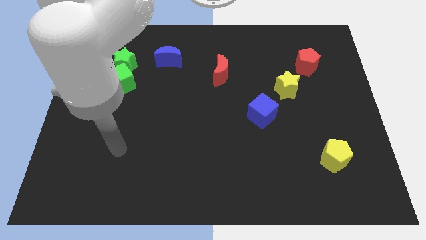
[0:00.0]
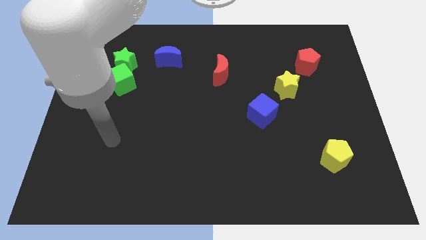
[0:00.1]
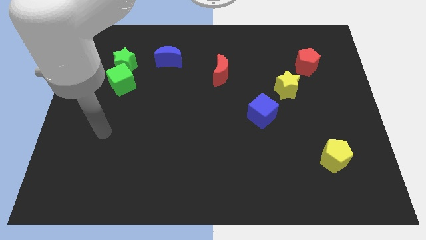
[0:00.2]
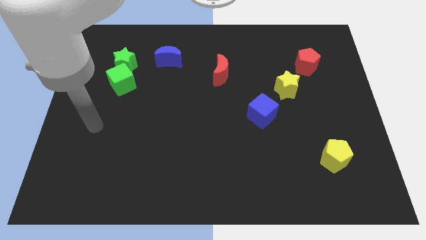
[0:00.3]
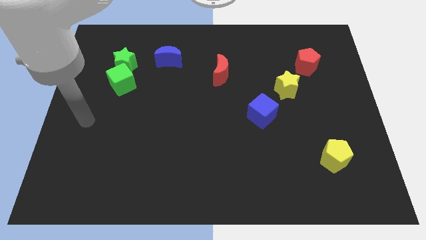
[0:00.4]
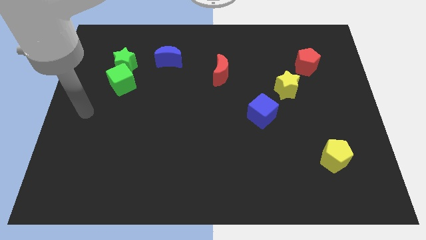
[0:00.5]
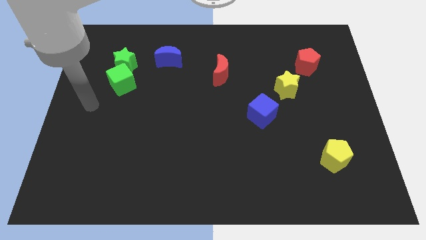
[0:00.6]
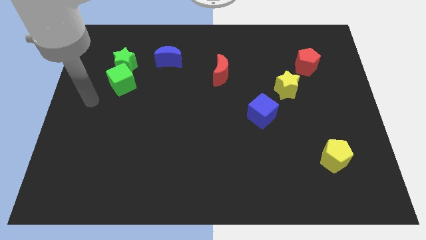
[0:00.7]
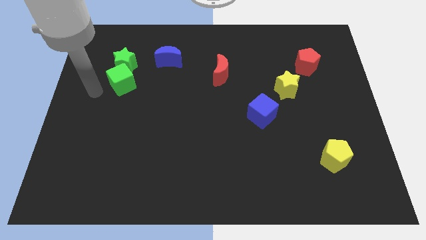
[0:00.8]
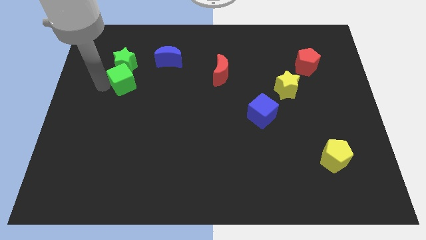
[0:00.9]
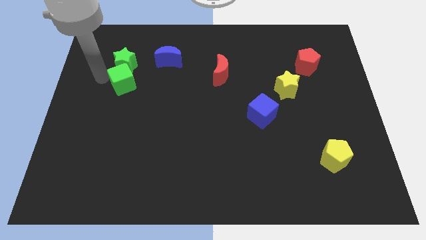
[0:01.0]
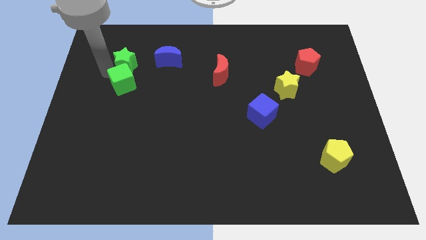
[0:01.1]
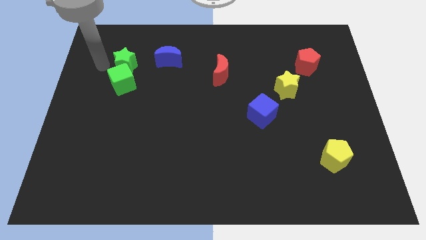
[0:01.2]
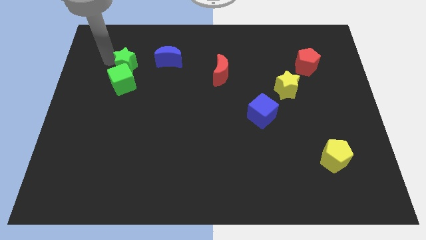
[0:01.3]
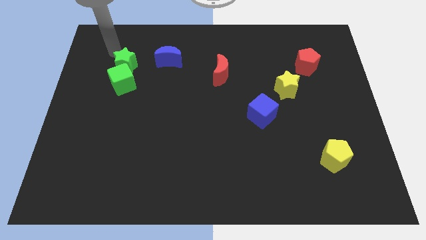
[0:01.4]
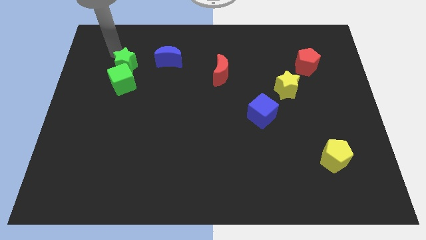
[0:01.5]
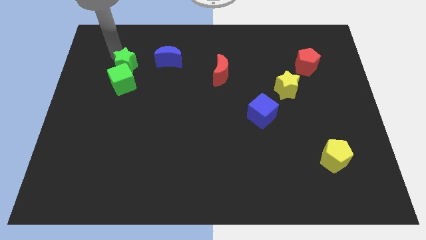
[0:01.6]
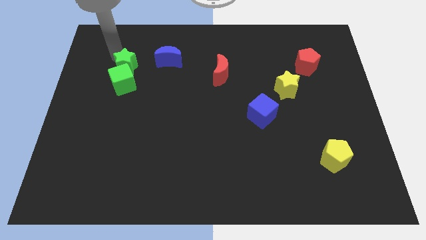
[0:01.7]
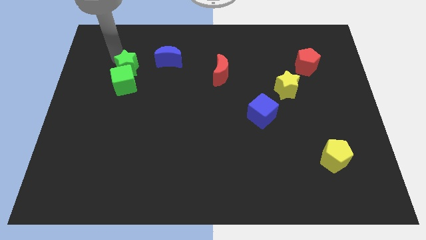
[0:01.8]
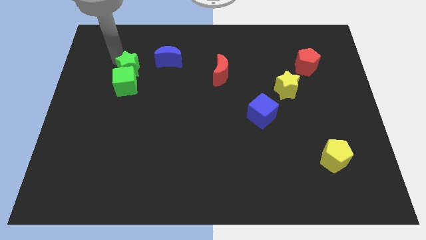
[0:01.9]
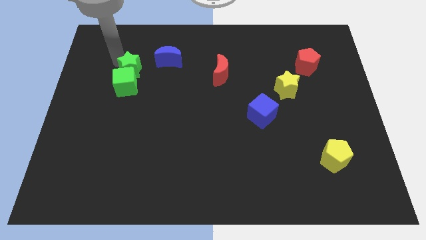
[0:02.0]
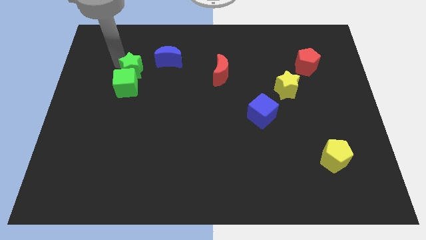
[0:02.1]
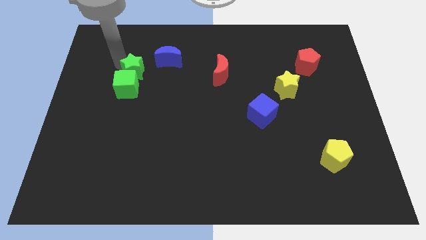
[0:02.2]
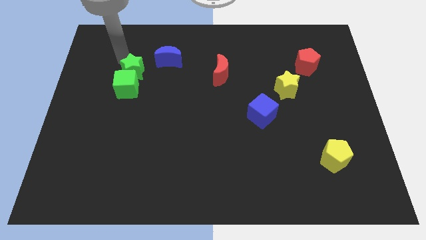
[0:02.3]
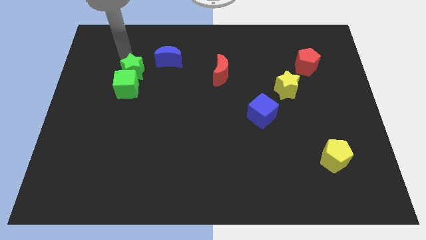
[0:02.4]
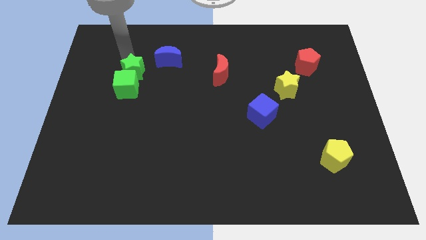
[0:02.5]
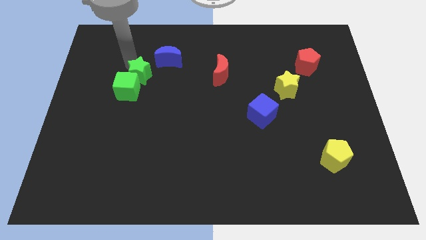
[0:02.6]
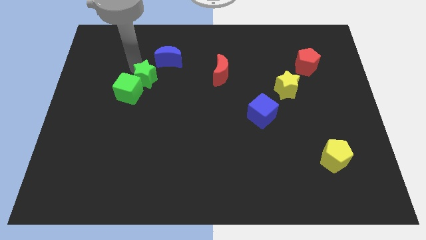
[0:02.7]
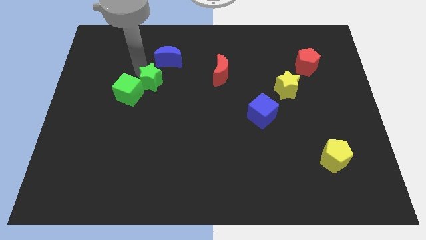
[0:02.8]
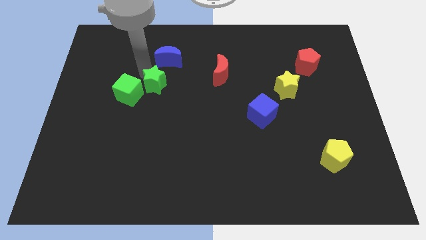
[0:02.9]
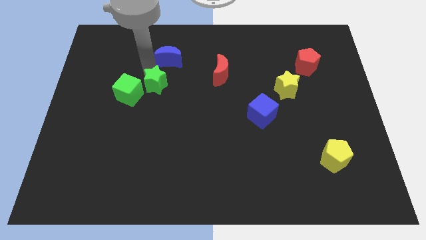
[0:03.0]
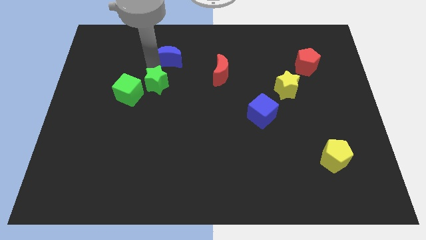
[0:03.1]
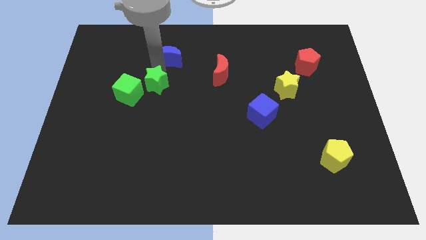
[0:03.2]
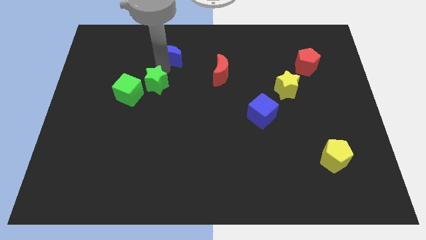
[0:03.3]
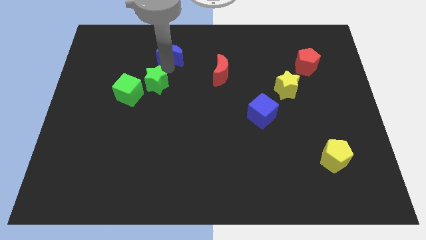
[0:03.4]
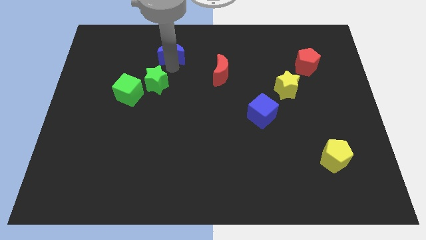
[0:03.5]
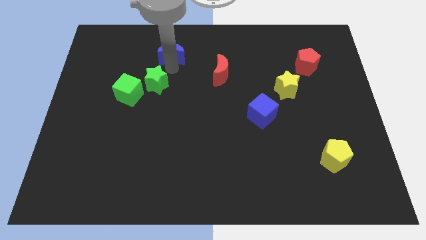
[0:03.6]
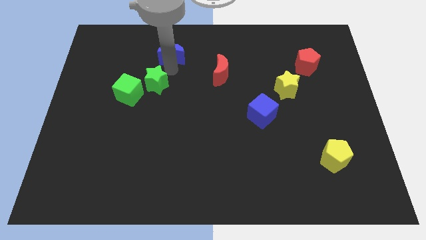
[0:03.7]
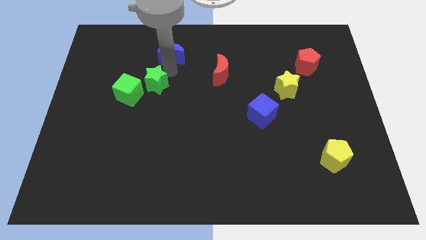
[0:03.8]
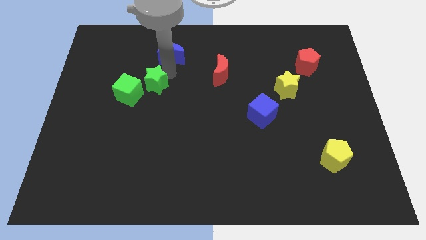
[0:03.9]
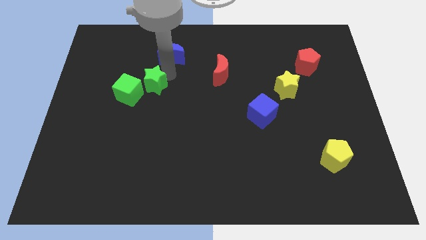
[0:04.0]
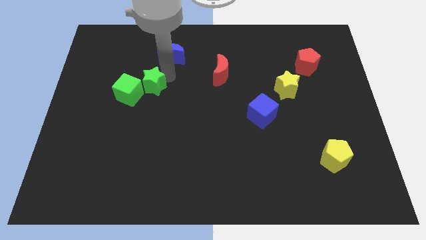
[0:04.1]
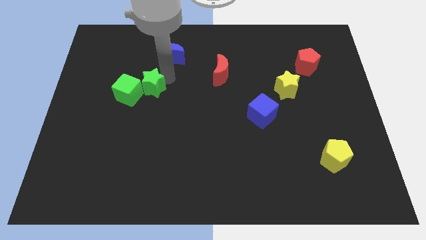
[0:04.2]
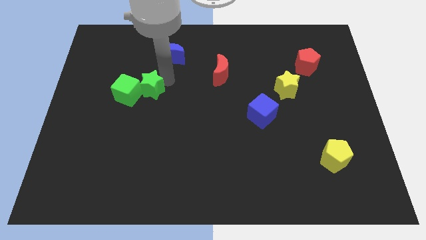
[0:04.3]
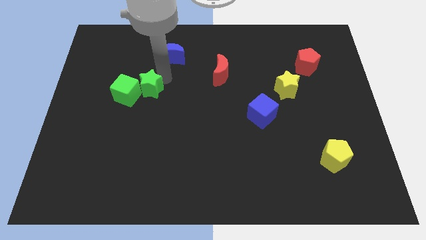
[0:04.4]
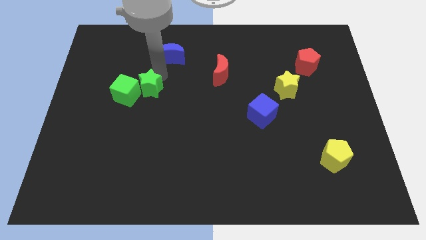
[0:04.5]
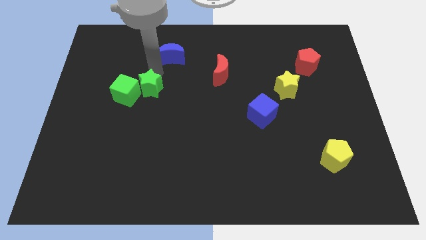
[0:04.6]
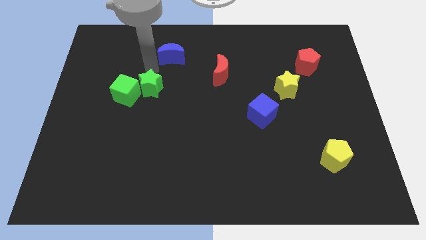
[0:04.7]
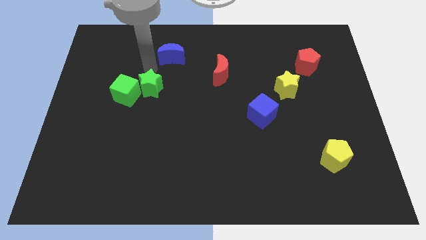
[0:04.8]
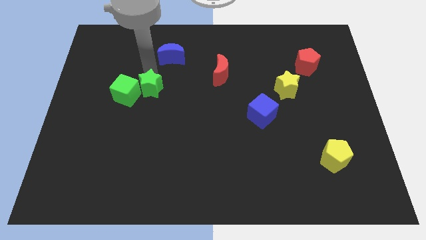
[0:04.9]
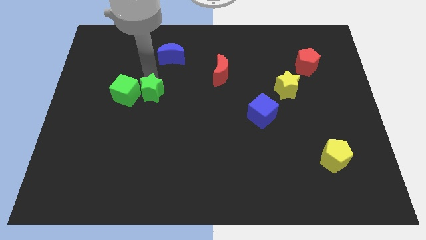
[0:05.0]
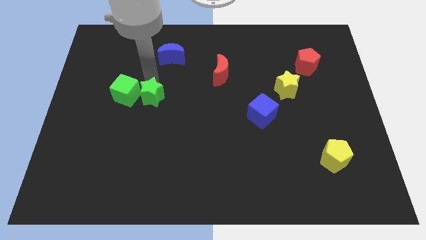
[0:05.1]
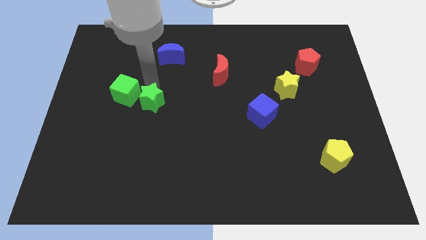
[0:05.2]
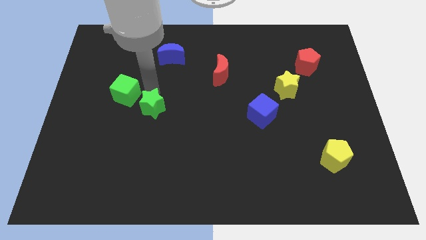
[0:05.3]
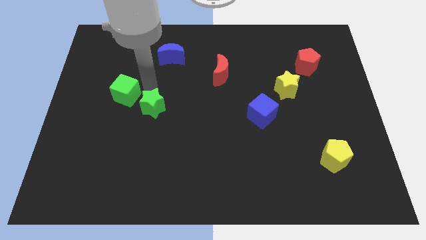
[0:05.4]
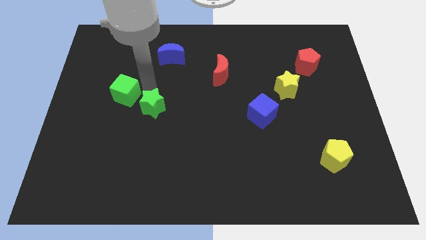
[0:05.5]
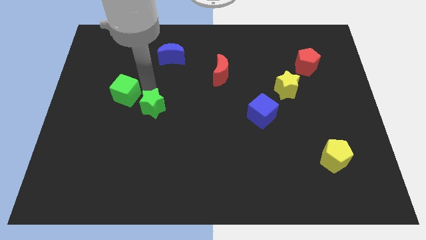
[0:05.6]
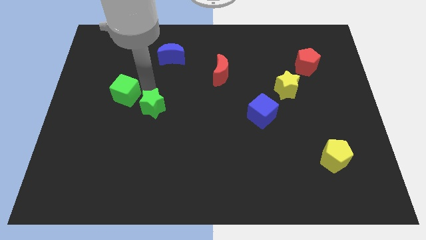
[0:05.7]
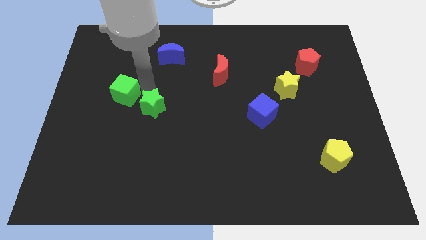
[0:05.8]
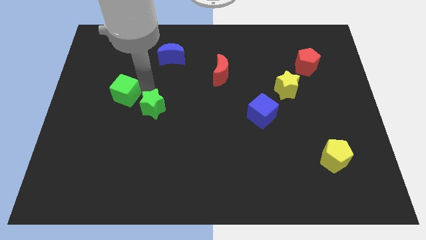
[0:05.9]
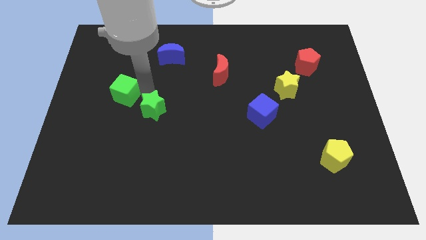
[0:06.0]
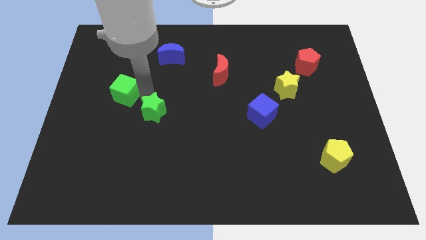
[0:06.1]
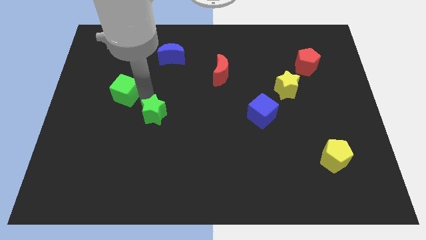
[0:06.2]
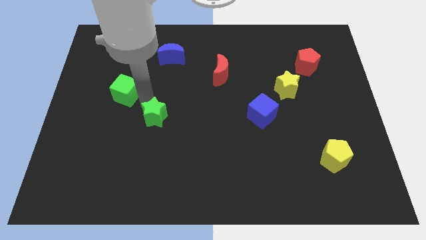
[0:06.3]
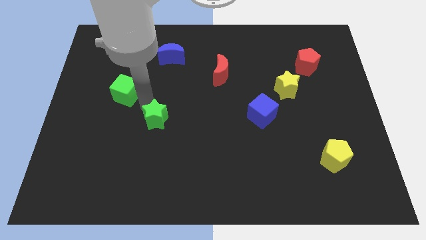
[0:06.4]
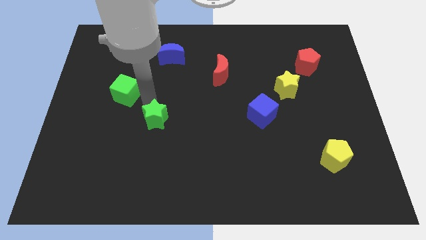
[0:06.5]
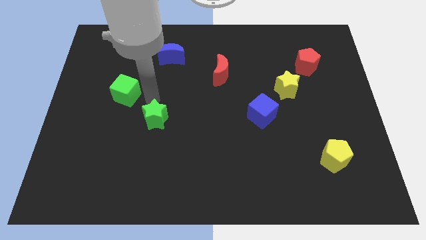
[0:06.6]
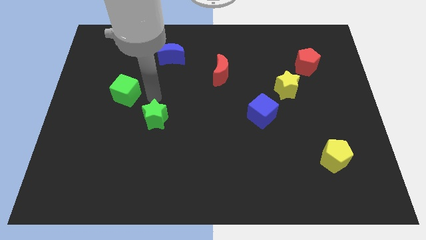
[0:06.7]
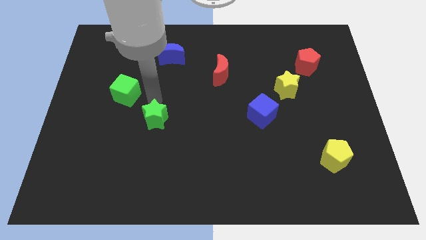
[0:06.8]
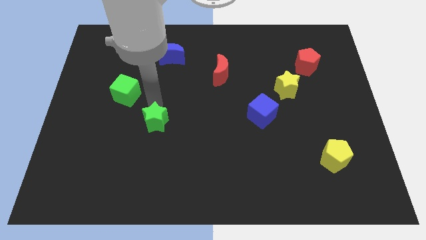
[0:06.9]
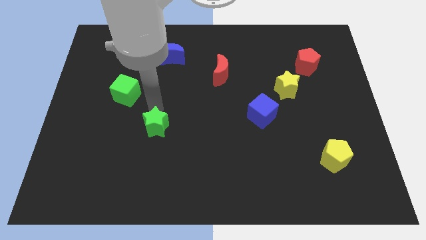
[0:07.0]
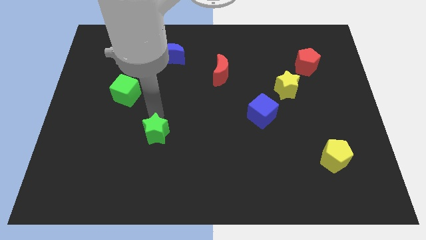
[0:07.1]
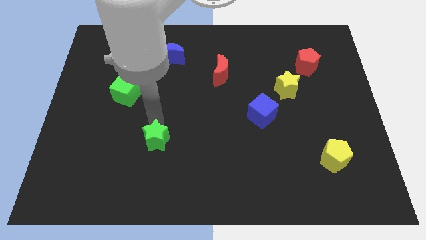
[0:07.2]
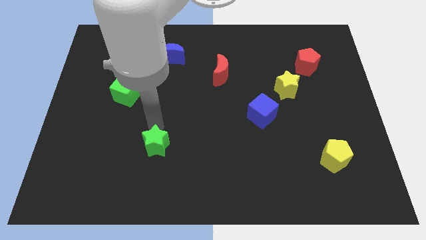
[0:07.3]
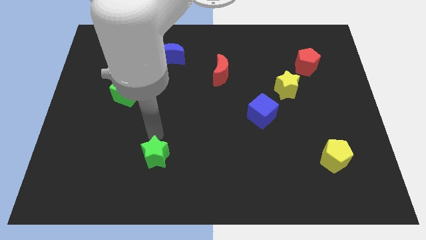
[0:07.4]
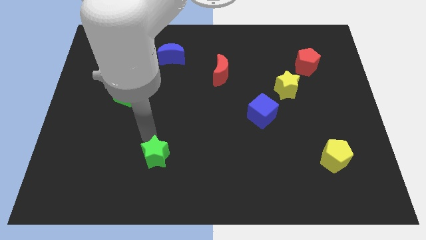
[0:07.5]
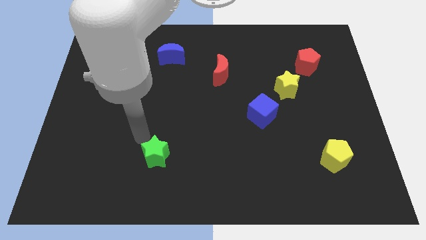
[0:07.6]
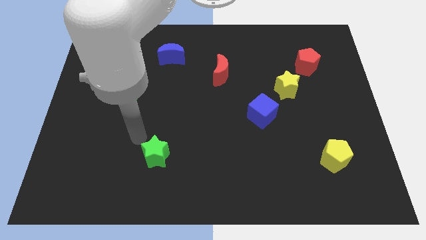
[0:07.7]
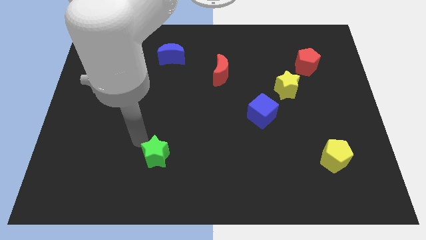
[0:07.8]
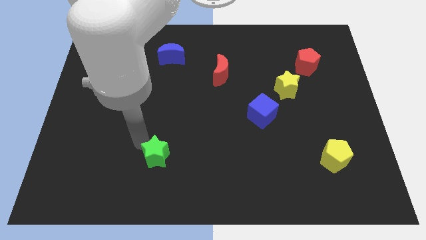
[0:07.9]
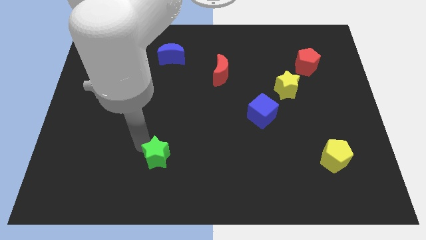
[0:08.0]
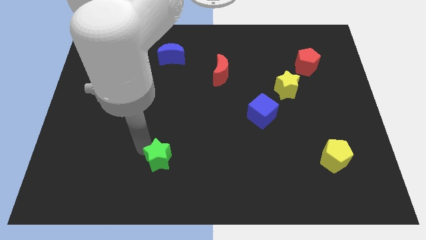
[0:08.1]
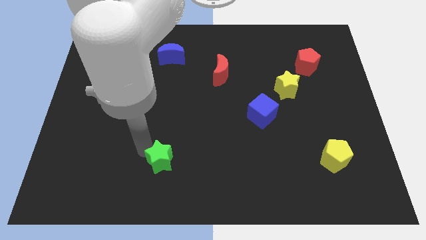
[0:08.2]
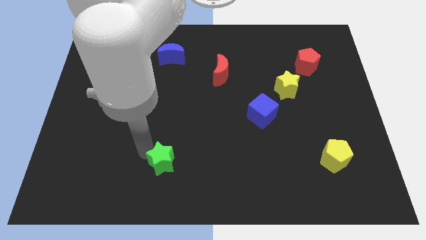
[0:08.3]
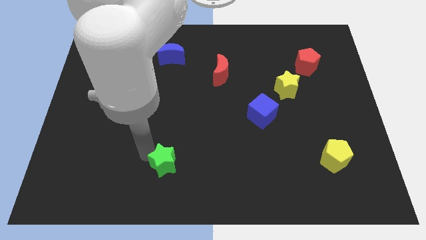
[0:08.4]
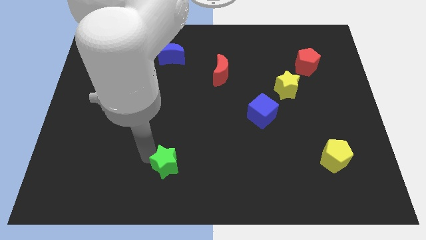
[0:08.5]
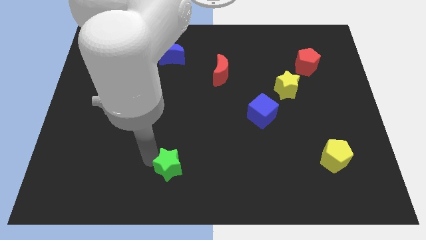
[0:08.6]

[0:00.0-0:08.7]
push the green star to the bottom side
